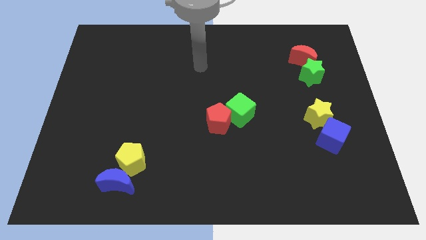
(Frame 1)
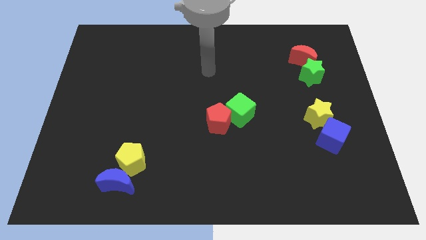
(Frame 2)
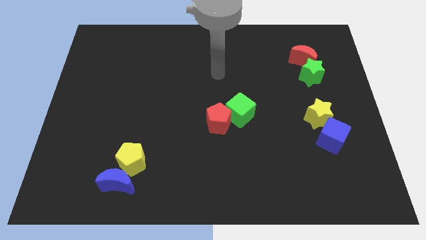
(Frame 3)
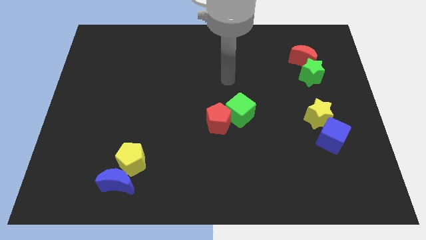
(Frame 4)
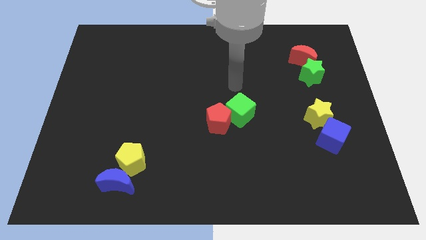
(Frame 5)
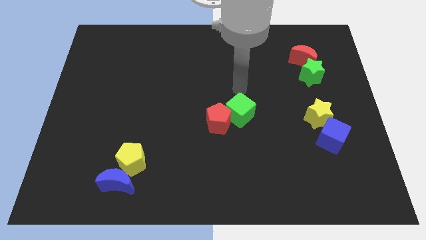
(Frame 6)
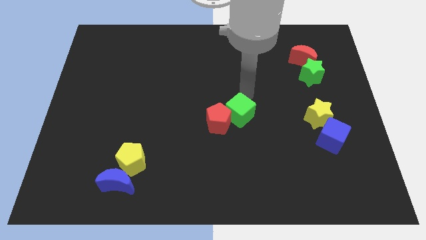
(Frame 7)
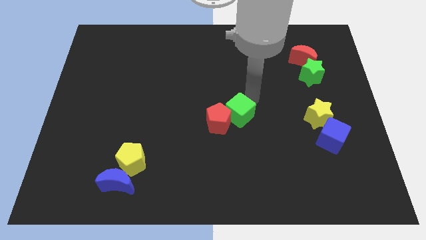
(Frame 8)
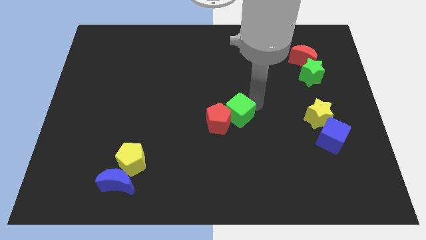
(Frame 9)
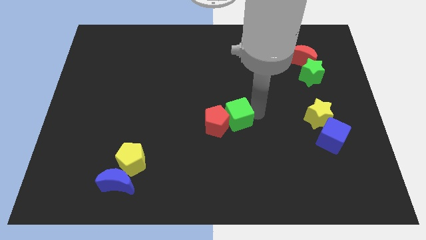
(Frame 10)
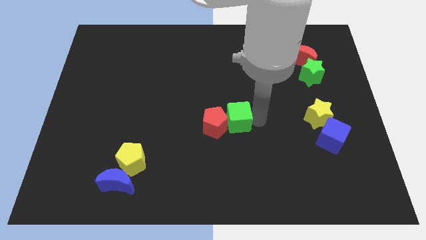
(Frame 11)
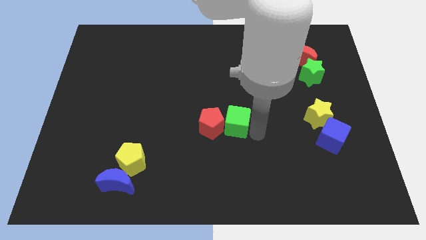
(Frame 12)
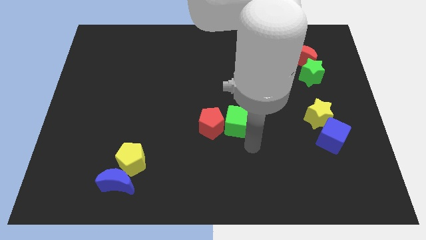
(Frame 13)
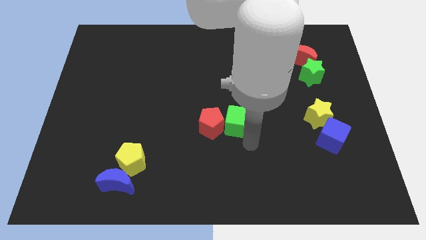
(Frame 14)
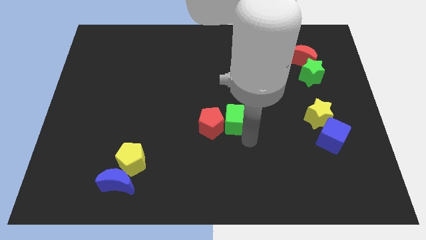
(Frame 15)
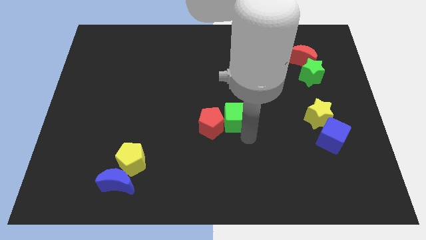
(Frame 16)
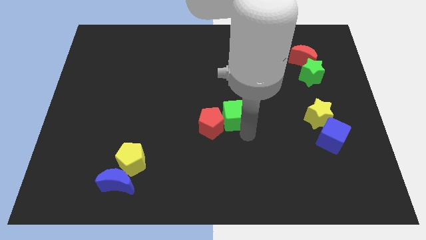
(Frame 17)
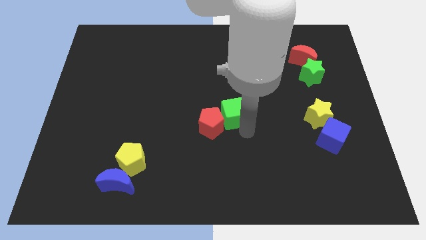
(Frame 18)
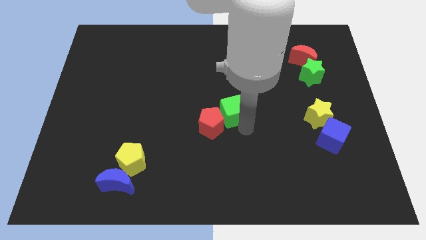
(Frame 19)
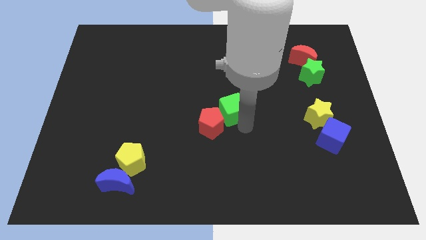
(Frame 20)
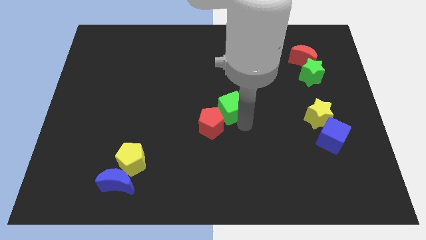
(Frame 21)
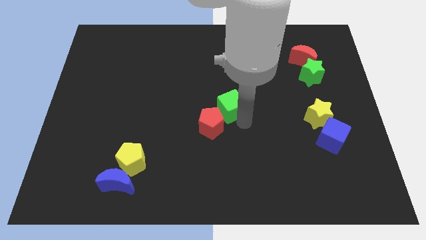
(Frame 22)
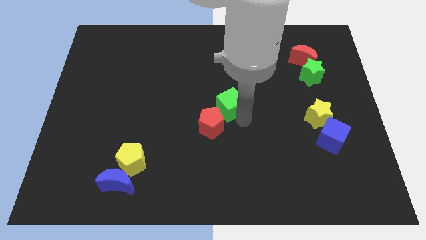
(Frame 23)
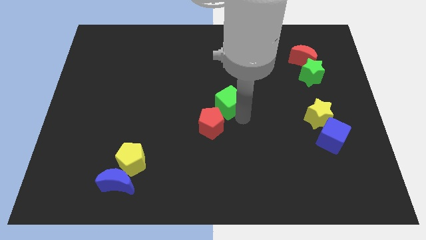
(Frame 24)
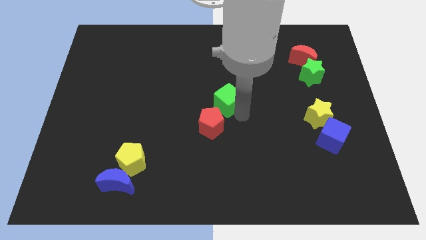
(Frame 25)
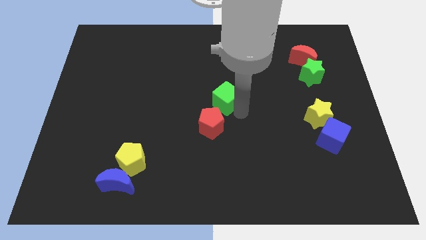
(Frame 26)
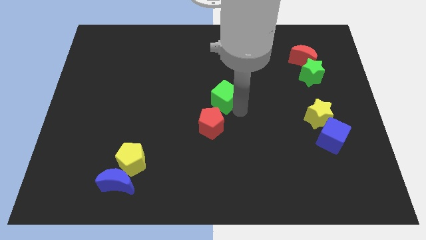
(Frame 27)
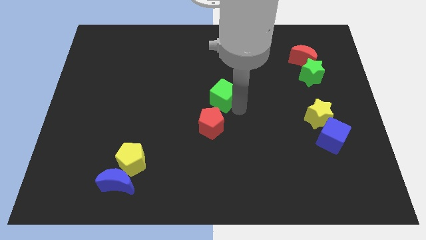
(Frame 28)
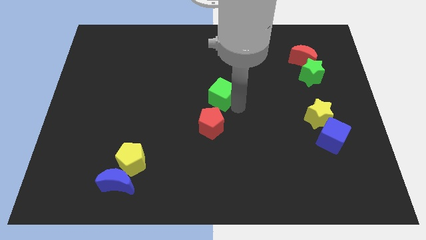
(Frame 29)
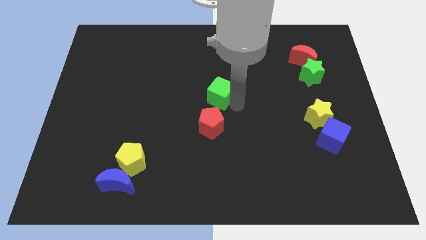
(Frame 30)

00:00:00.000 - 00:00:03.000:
move the green cube a little bit diagonally upwards and left

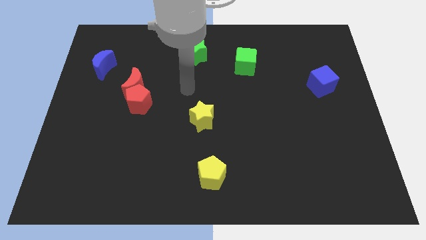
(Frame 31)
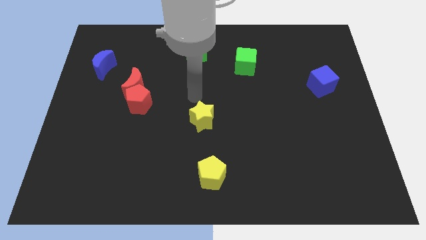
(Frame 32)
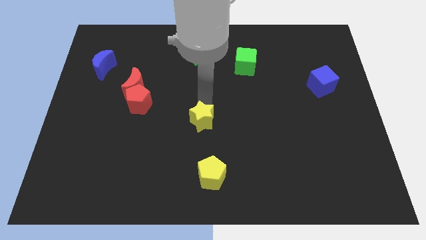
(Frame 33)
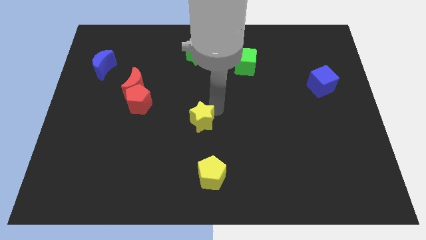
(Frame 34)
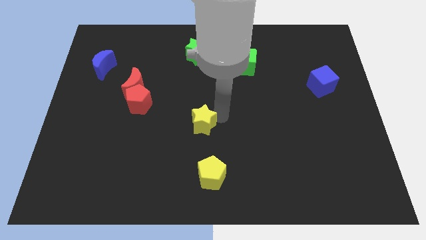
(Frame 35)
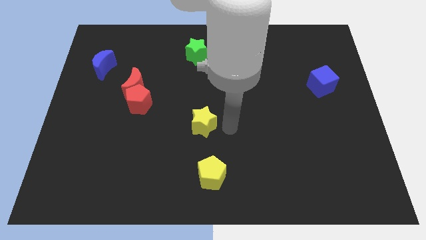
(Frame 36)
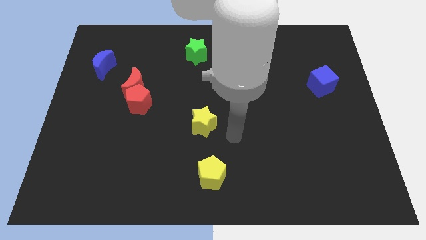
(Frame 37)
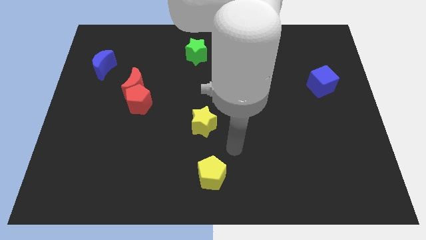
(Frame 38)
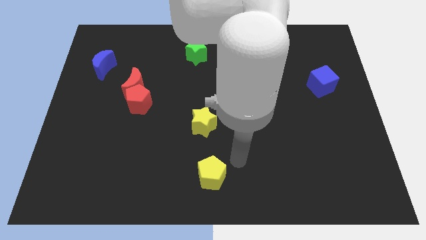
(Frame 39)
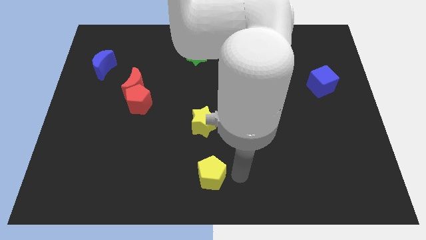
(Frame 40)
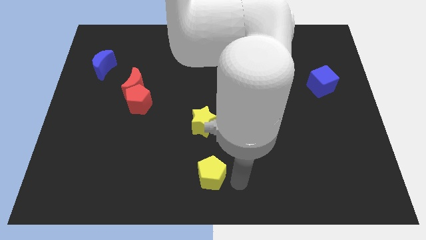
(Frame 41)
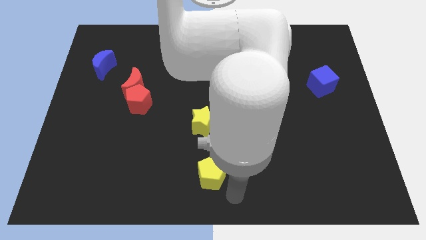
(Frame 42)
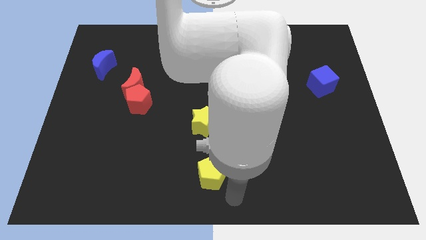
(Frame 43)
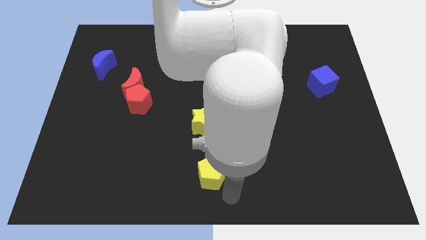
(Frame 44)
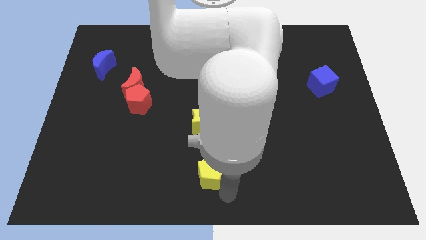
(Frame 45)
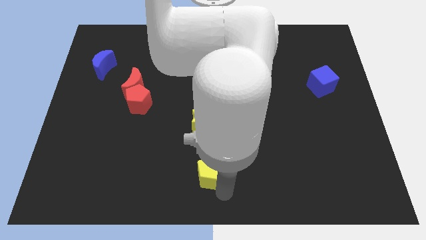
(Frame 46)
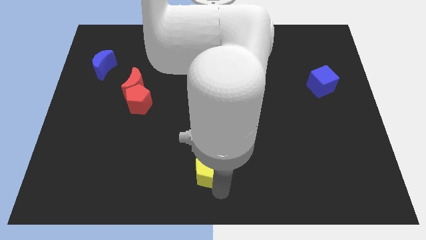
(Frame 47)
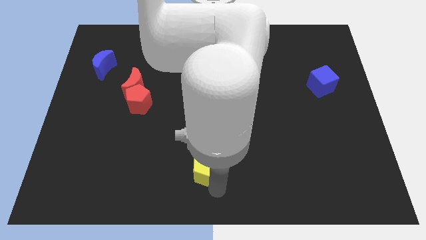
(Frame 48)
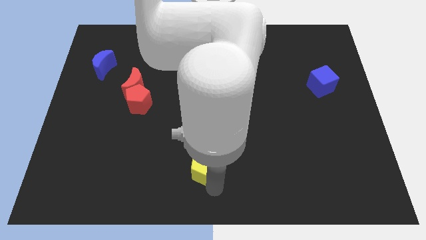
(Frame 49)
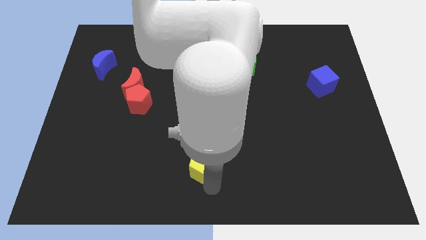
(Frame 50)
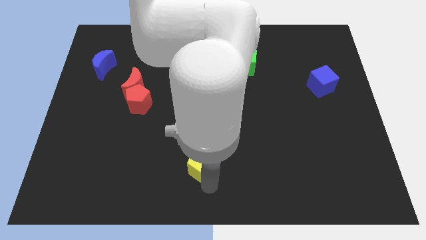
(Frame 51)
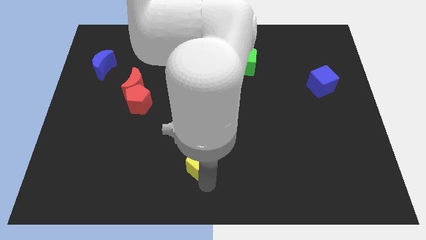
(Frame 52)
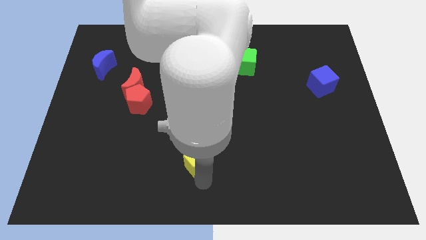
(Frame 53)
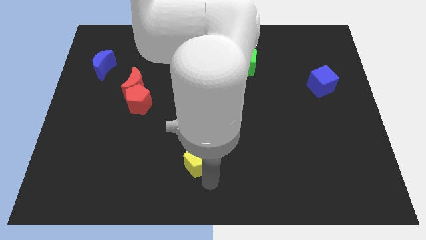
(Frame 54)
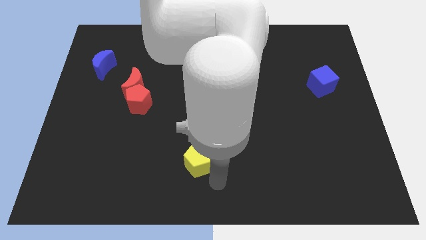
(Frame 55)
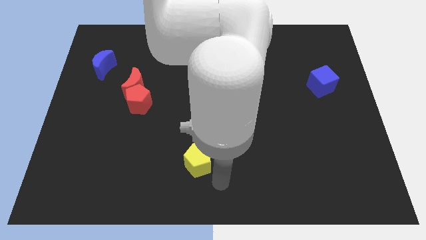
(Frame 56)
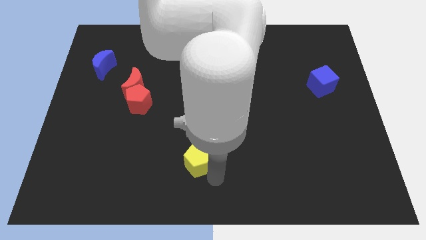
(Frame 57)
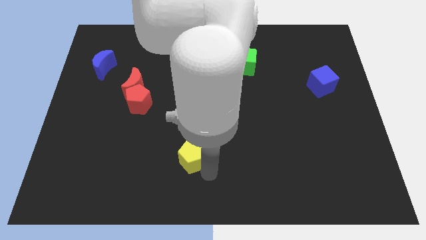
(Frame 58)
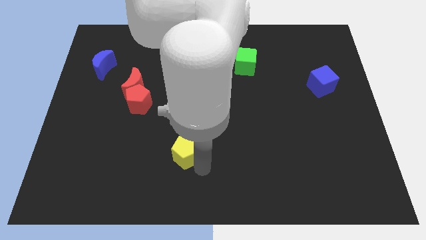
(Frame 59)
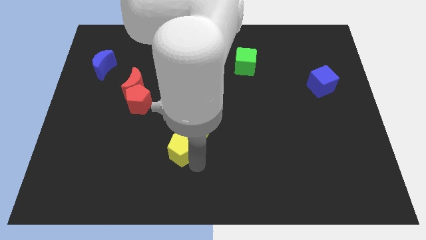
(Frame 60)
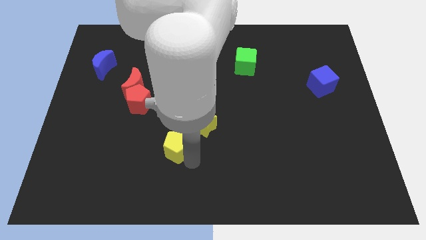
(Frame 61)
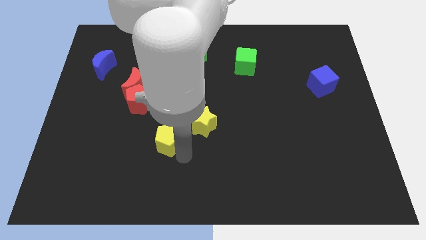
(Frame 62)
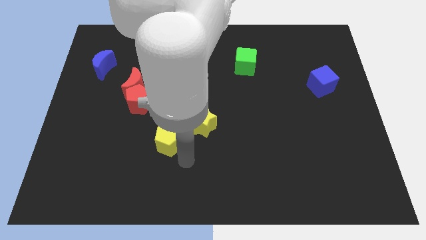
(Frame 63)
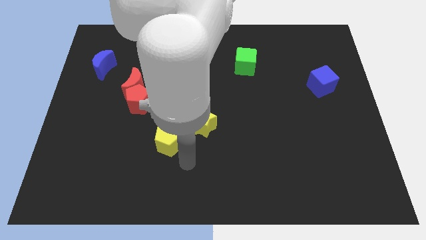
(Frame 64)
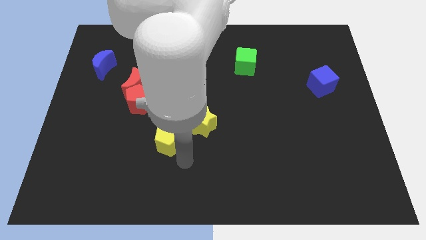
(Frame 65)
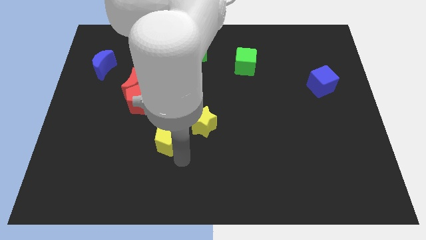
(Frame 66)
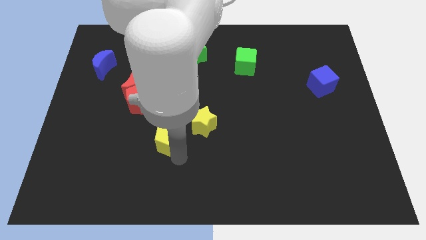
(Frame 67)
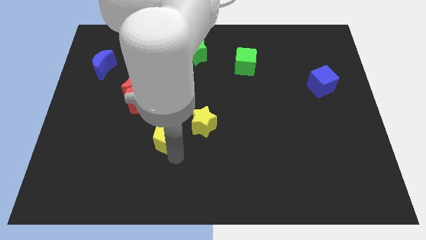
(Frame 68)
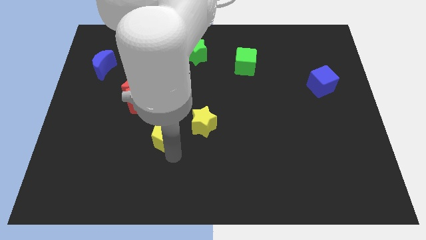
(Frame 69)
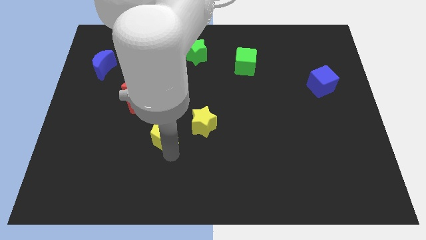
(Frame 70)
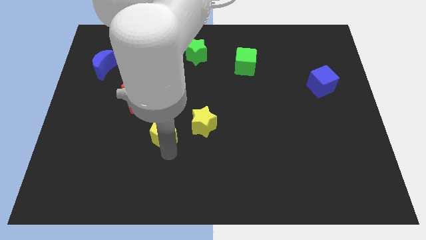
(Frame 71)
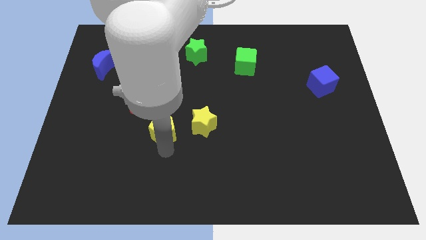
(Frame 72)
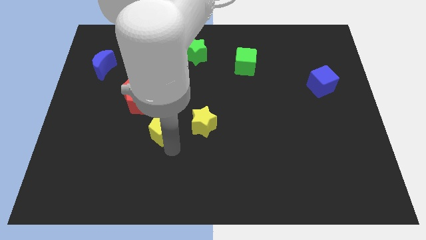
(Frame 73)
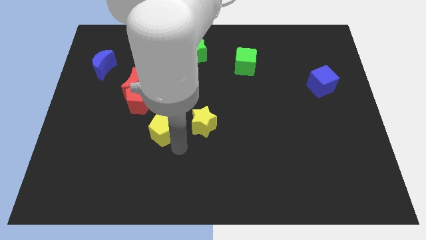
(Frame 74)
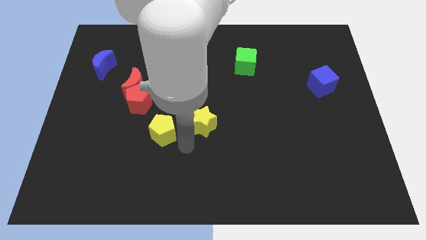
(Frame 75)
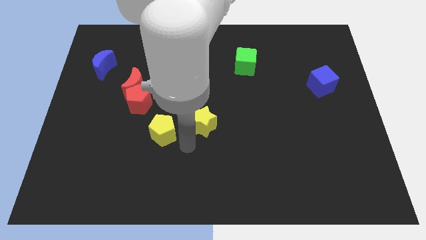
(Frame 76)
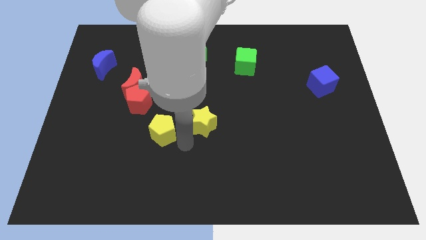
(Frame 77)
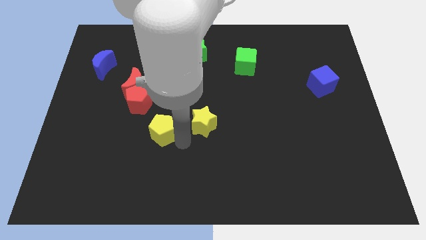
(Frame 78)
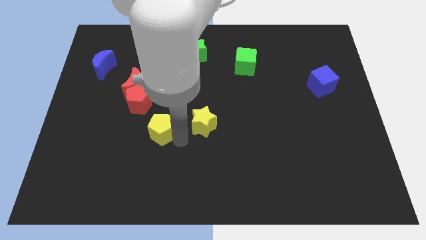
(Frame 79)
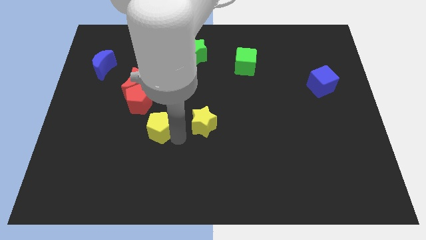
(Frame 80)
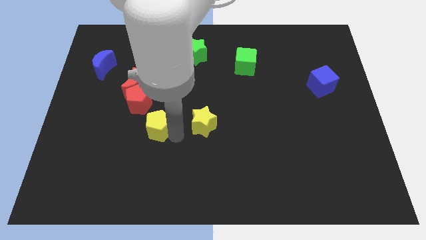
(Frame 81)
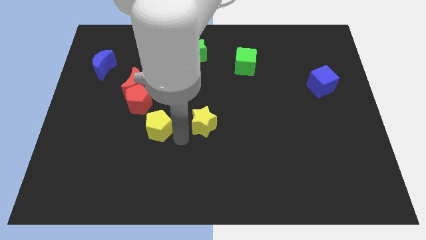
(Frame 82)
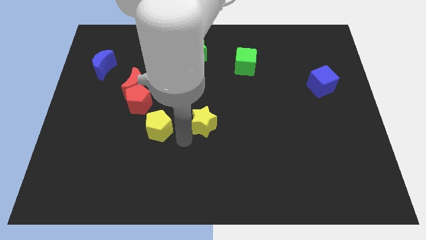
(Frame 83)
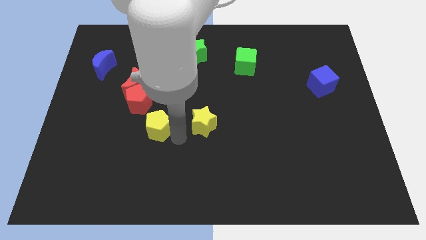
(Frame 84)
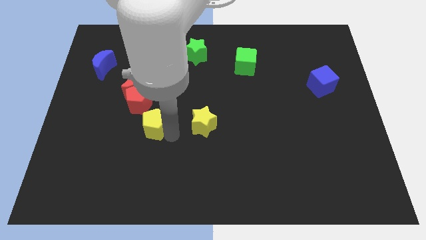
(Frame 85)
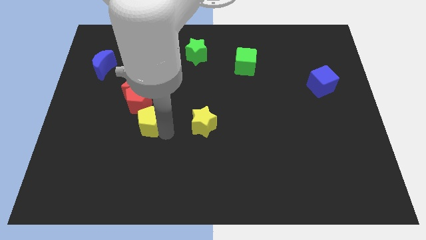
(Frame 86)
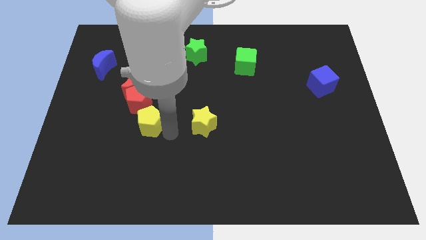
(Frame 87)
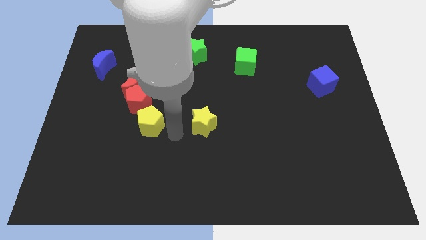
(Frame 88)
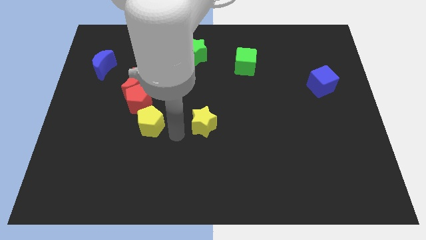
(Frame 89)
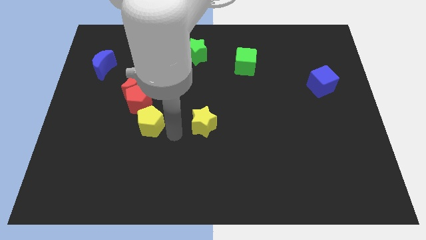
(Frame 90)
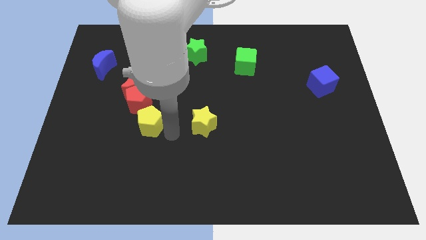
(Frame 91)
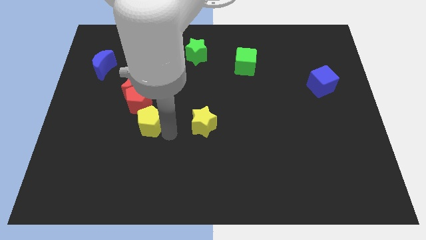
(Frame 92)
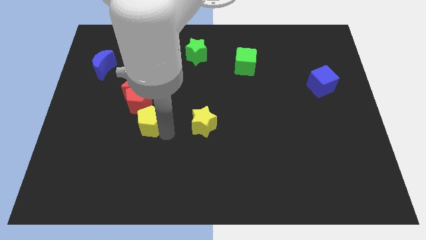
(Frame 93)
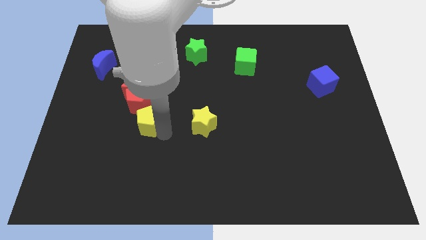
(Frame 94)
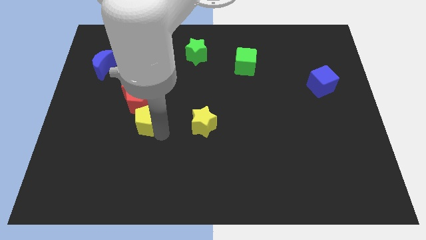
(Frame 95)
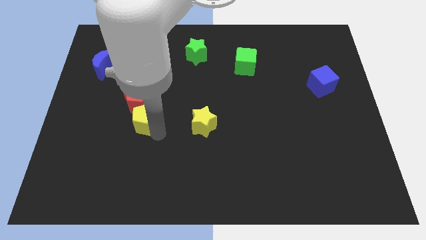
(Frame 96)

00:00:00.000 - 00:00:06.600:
slide the yellow pentagon diagonally up and left
